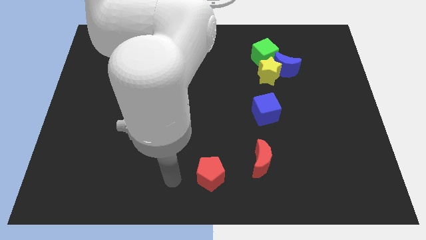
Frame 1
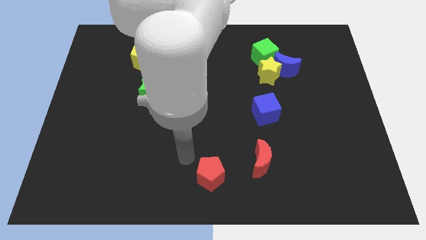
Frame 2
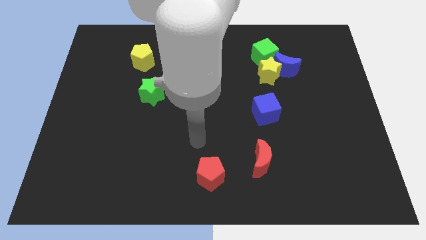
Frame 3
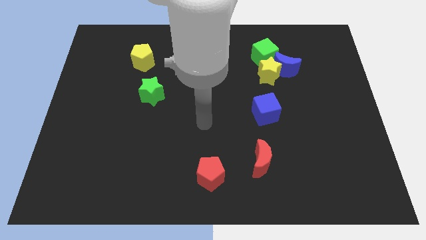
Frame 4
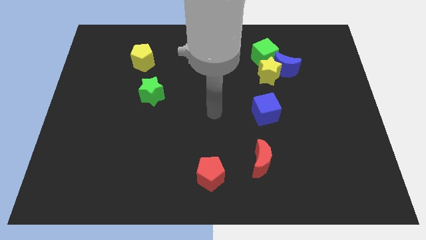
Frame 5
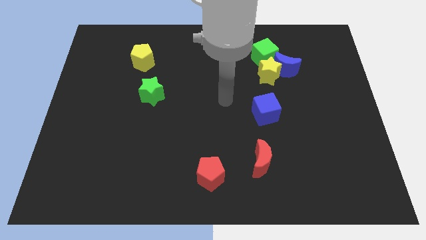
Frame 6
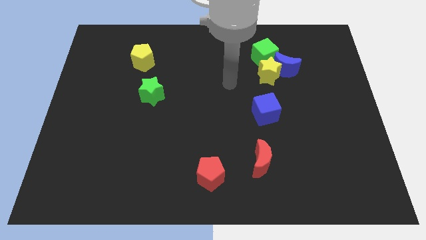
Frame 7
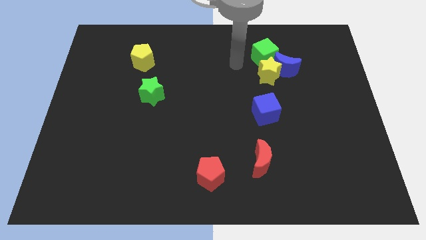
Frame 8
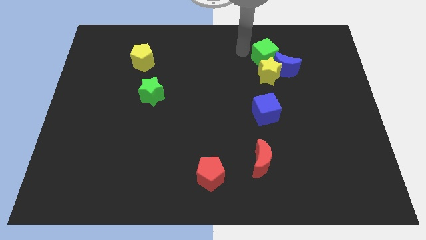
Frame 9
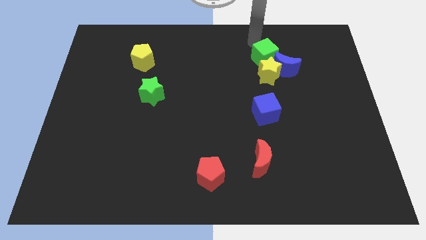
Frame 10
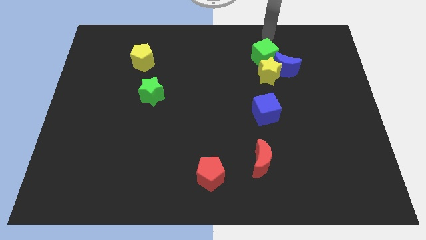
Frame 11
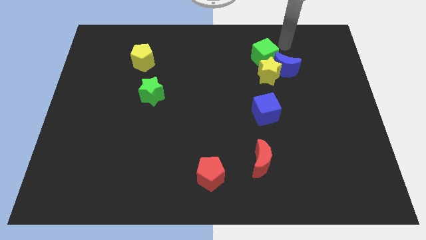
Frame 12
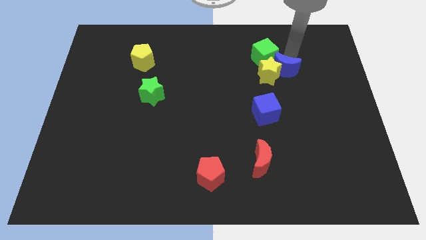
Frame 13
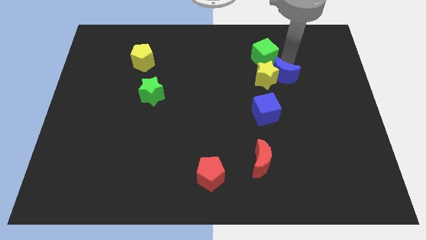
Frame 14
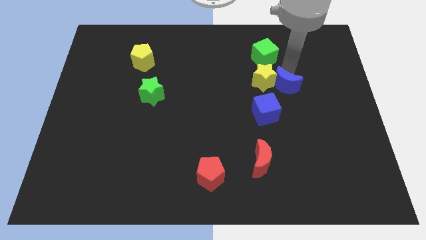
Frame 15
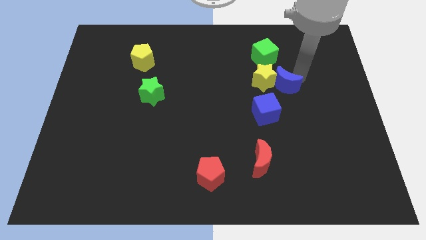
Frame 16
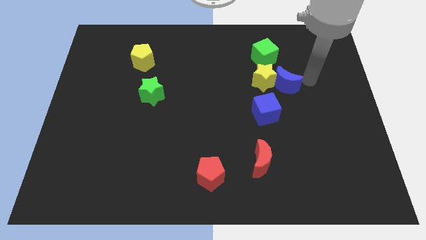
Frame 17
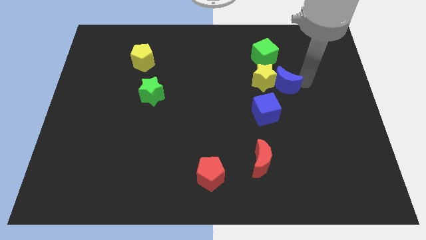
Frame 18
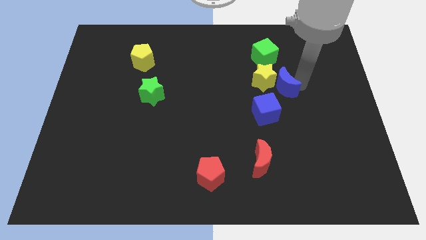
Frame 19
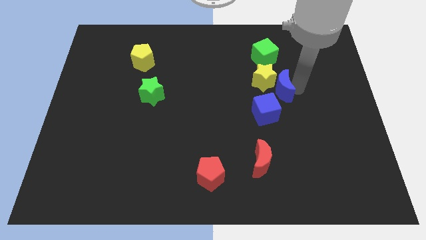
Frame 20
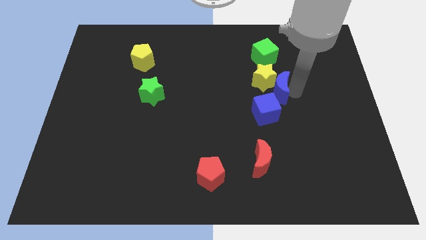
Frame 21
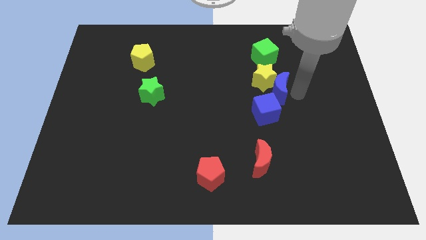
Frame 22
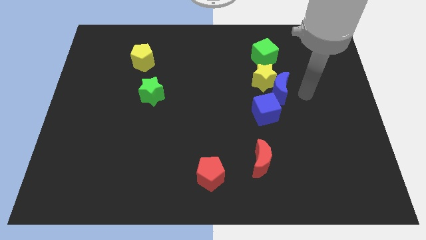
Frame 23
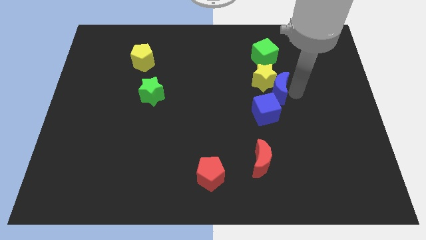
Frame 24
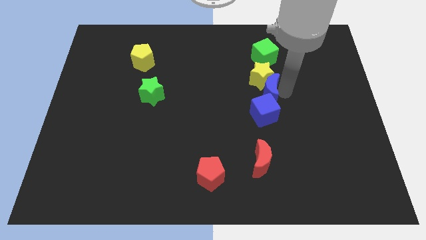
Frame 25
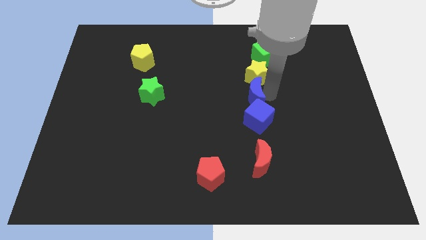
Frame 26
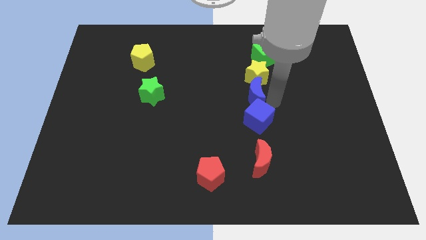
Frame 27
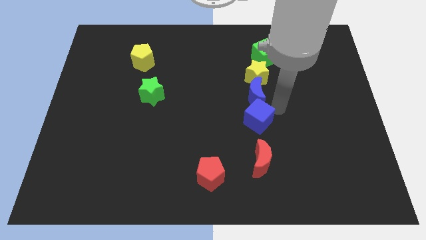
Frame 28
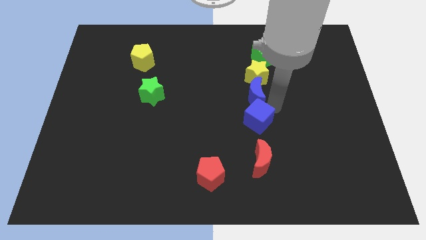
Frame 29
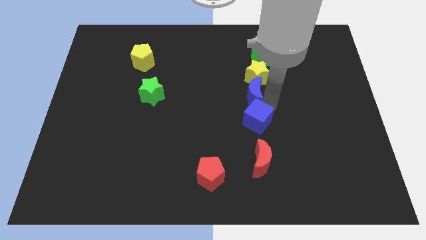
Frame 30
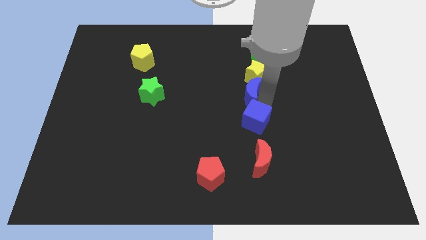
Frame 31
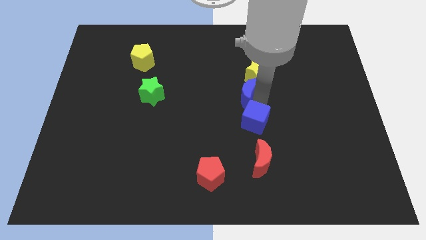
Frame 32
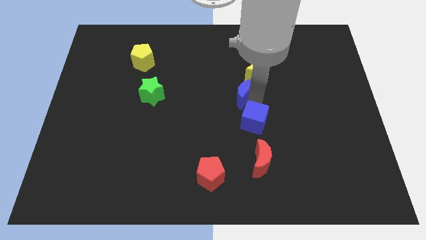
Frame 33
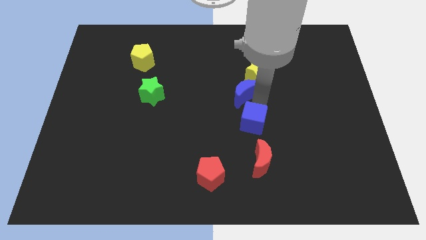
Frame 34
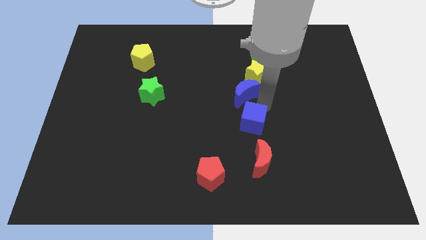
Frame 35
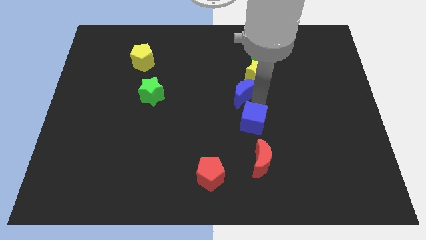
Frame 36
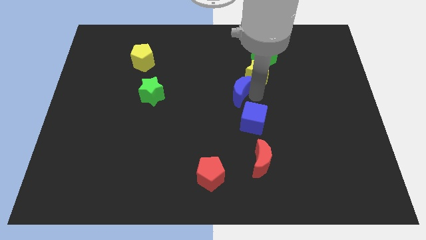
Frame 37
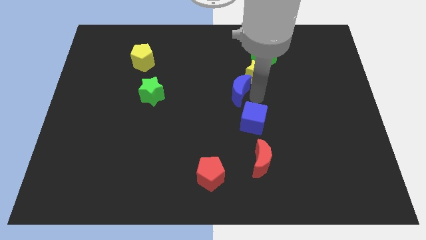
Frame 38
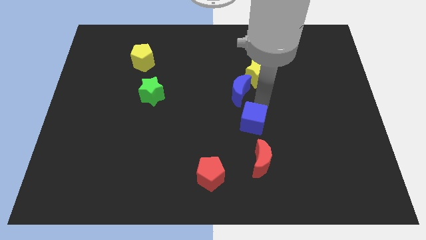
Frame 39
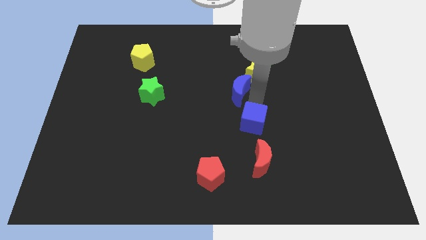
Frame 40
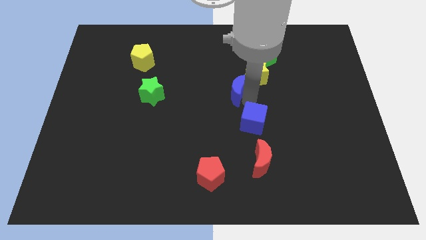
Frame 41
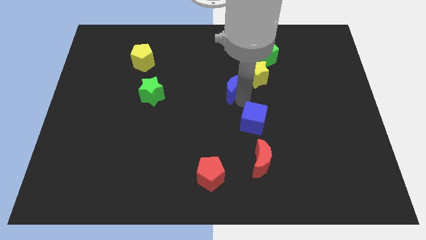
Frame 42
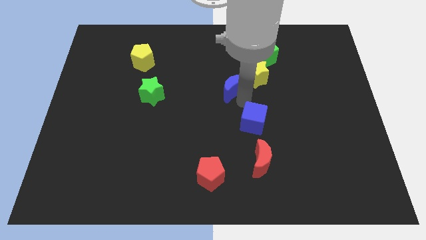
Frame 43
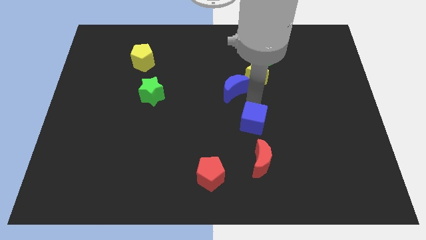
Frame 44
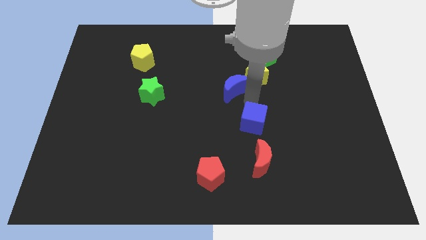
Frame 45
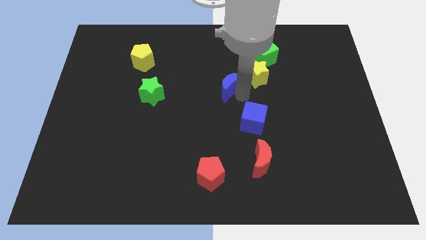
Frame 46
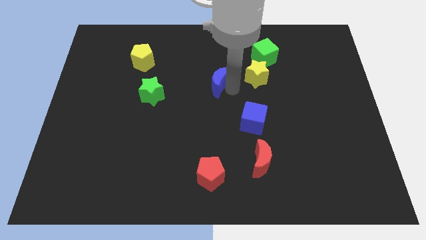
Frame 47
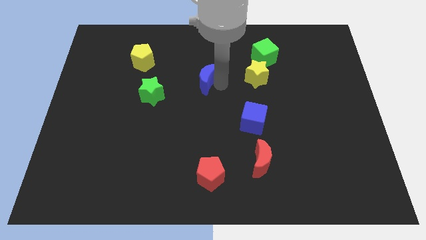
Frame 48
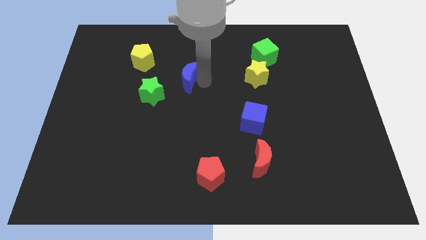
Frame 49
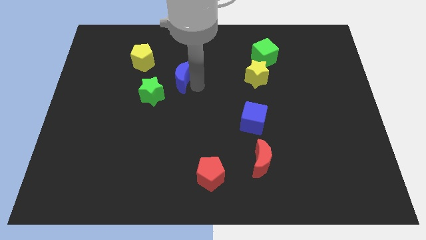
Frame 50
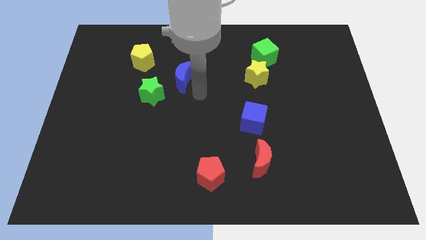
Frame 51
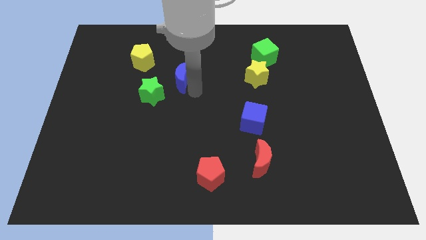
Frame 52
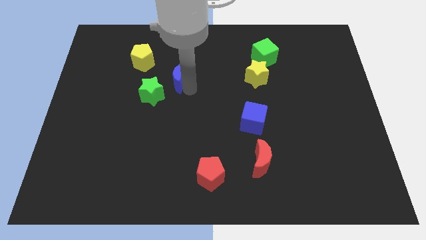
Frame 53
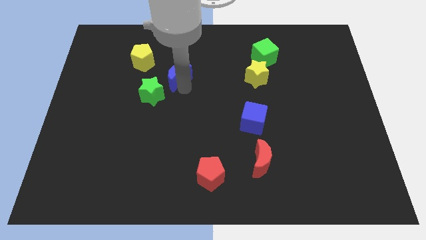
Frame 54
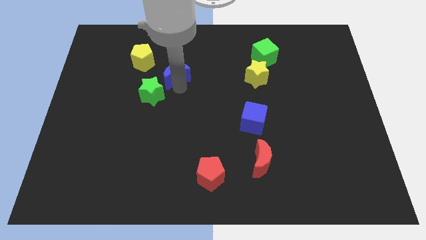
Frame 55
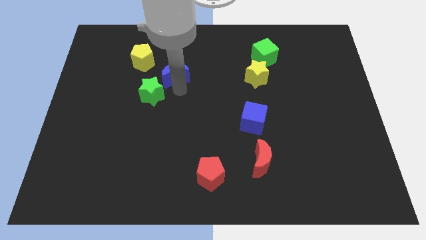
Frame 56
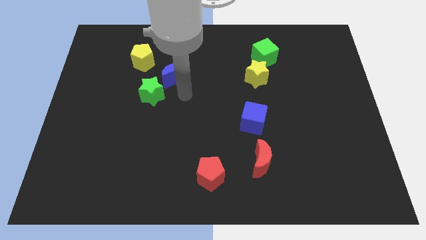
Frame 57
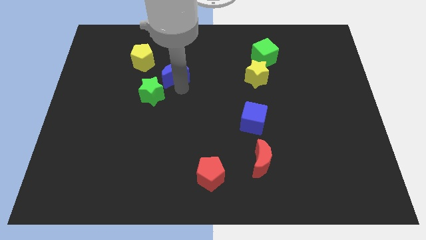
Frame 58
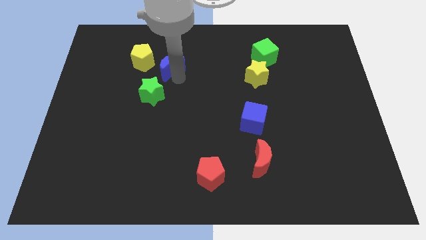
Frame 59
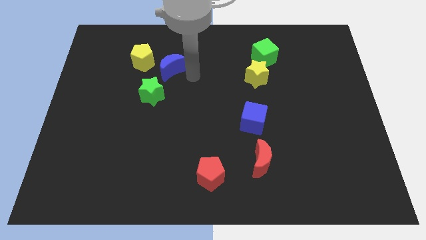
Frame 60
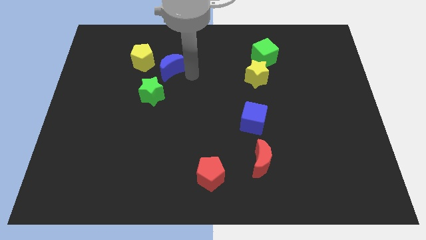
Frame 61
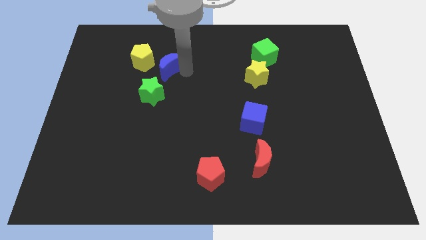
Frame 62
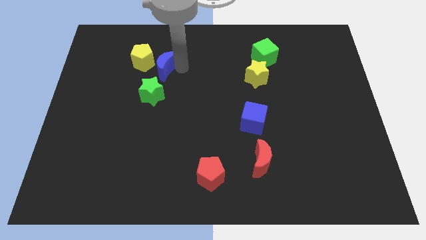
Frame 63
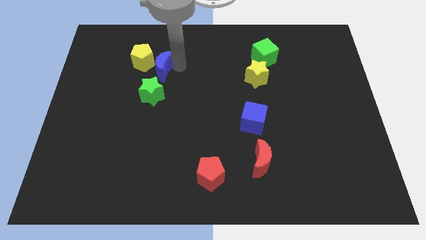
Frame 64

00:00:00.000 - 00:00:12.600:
move the blue moon next to the yellow pentagon
